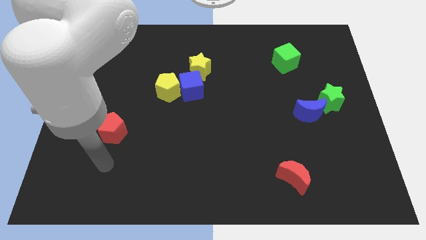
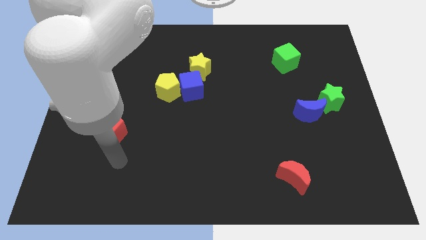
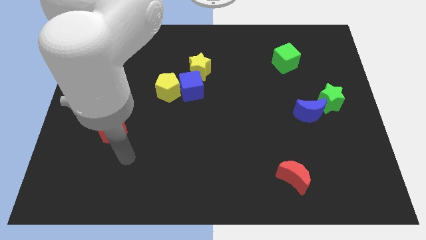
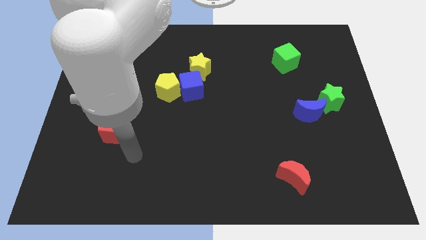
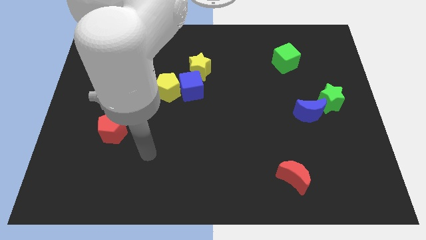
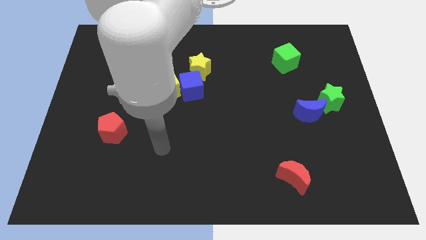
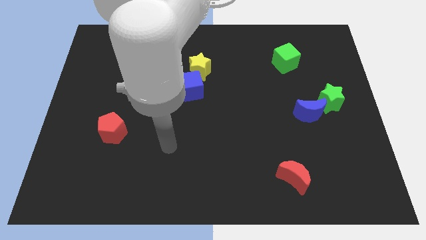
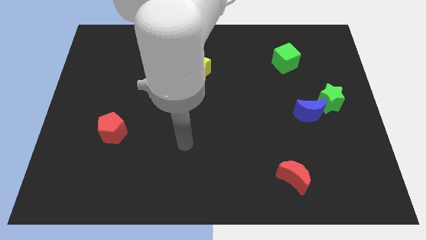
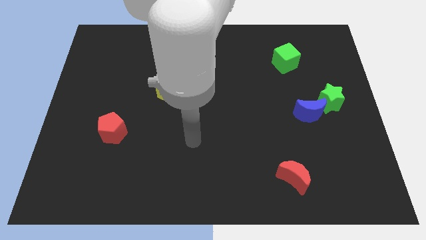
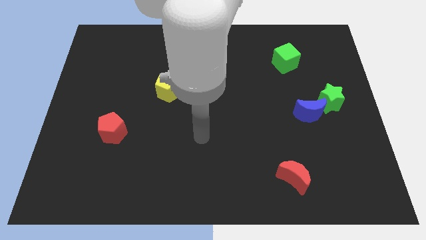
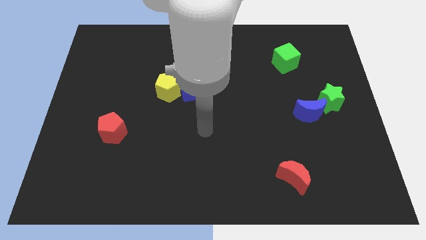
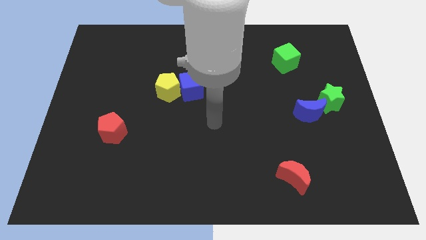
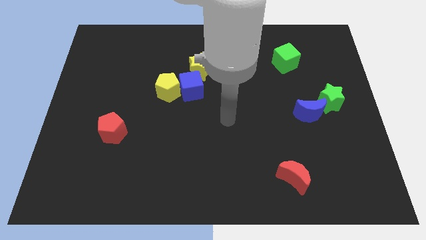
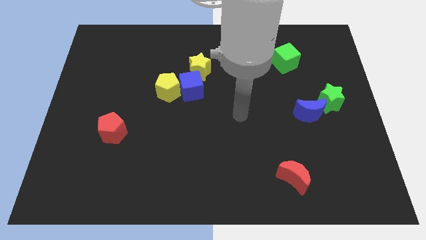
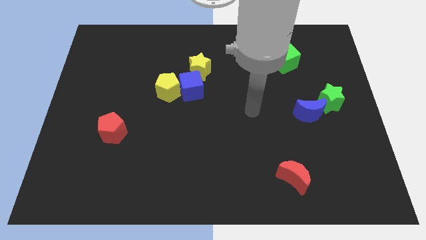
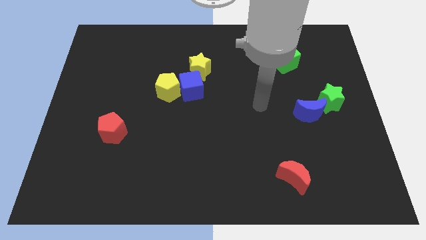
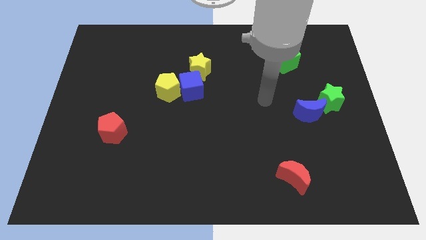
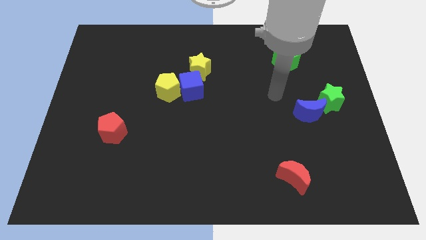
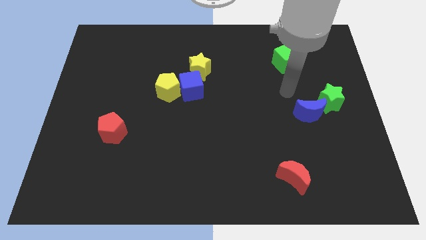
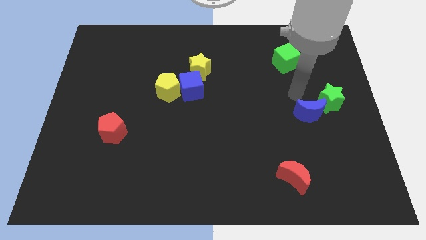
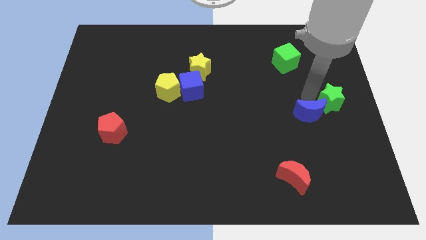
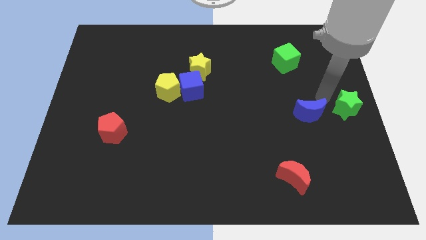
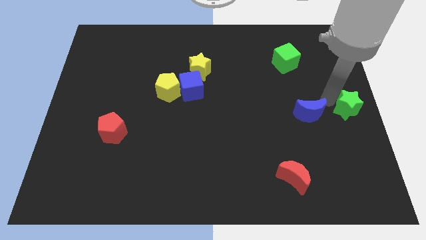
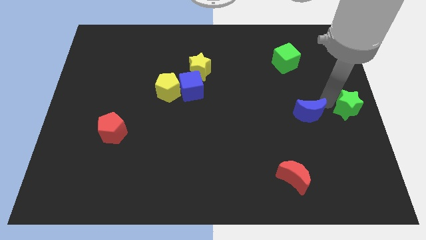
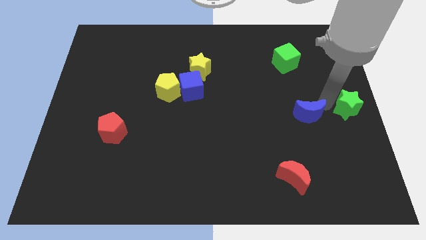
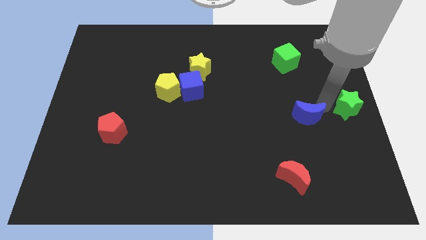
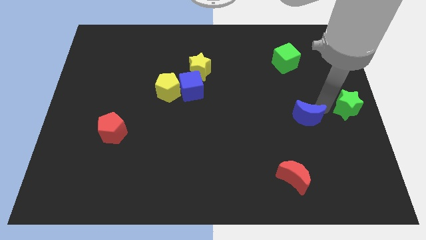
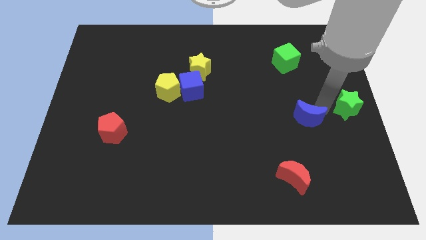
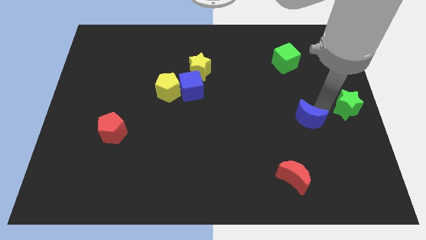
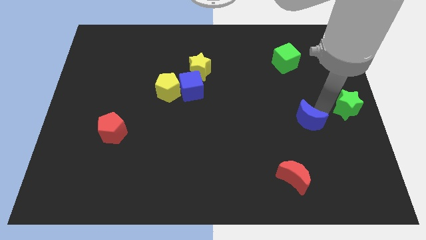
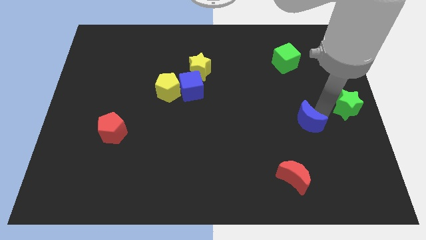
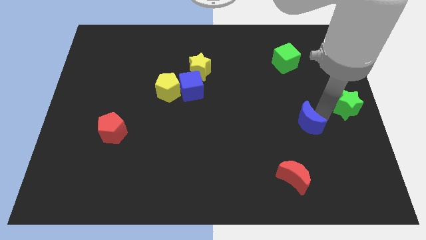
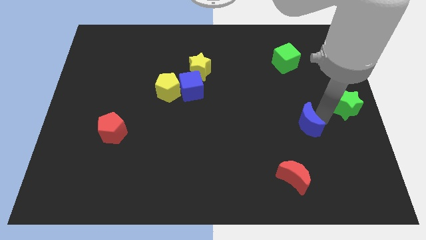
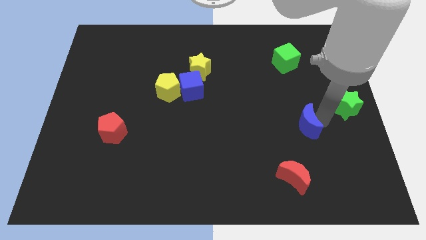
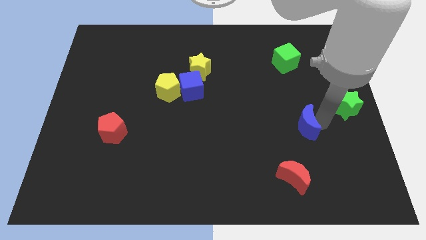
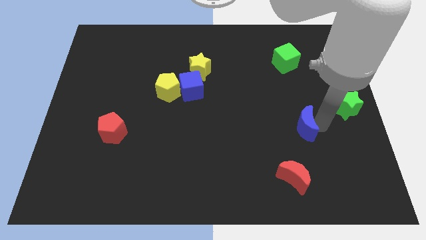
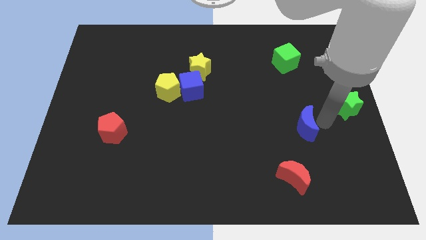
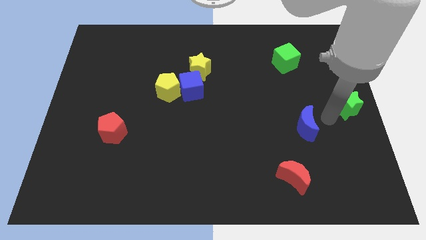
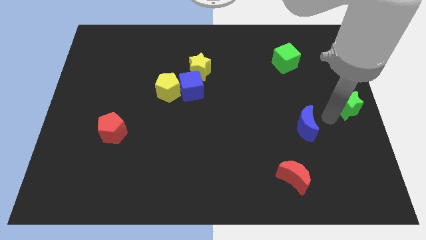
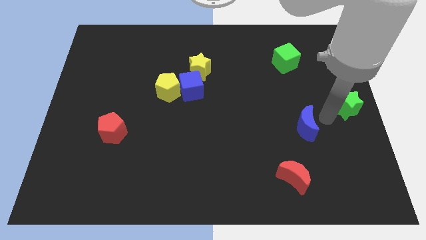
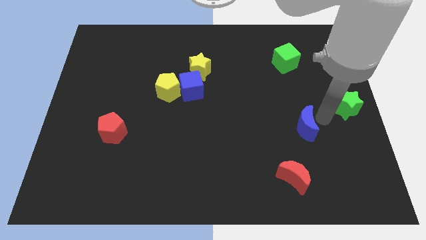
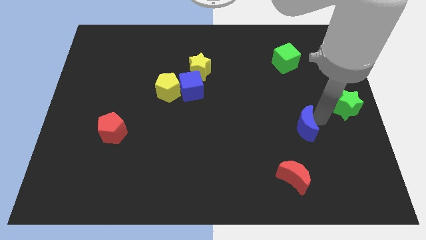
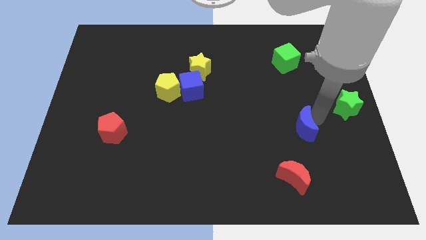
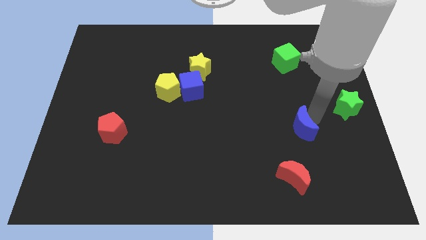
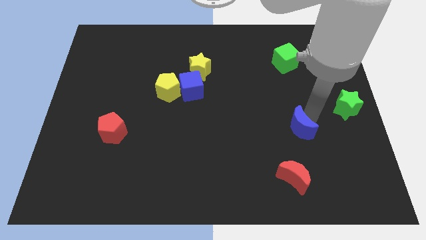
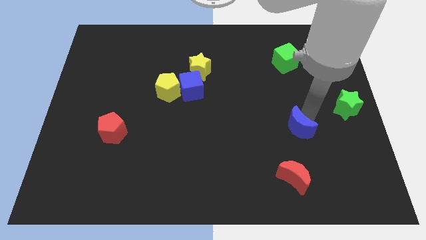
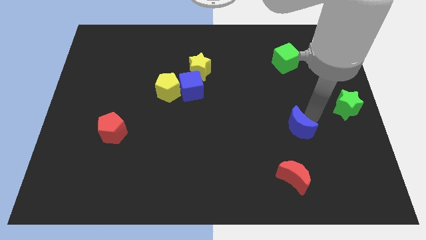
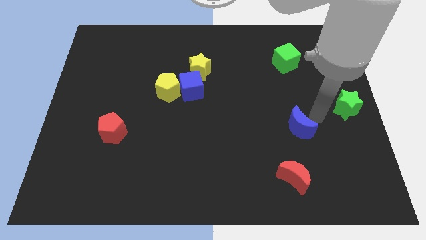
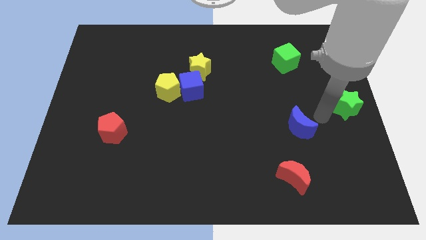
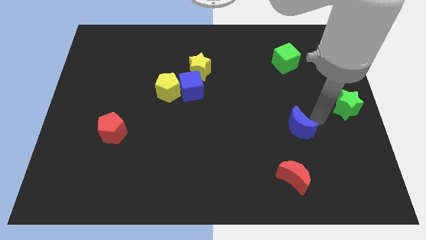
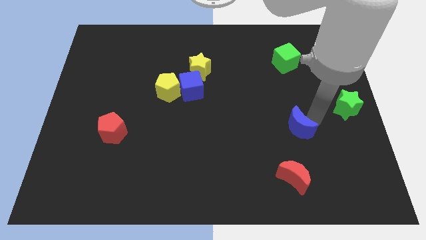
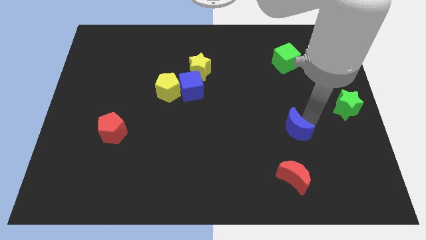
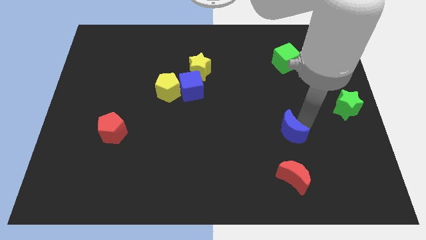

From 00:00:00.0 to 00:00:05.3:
push the blue moon a little down and to the left

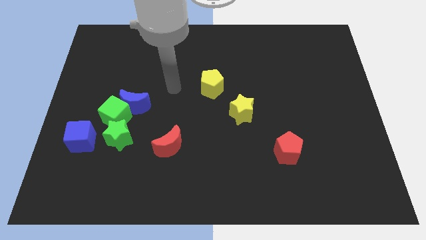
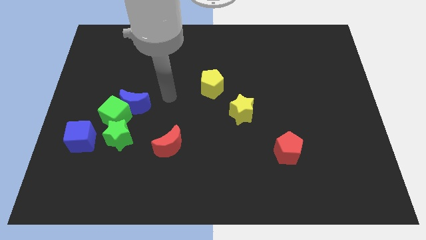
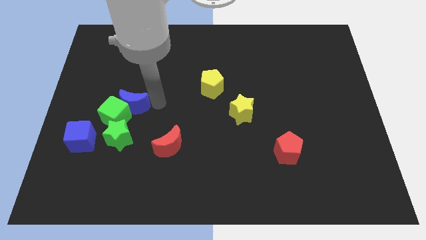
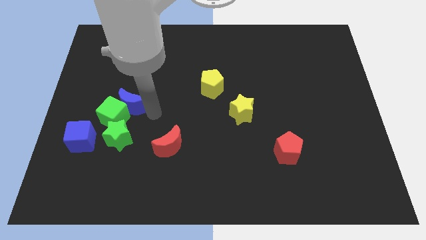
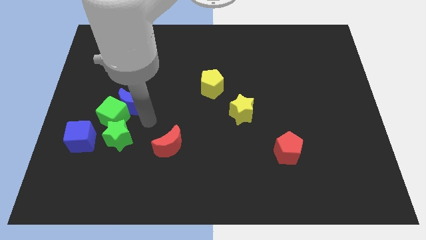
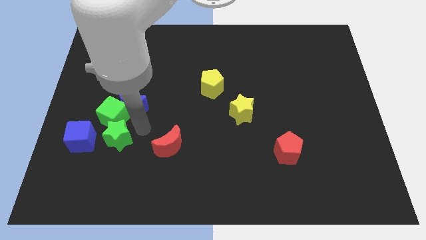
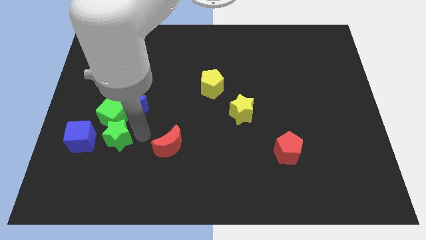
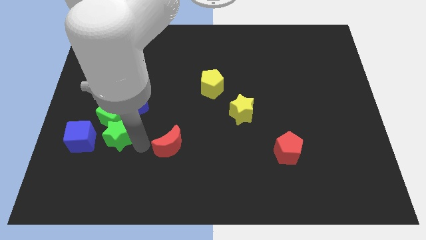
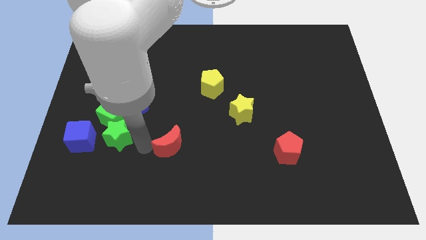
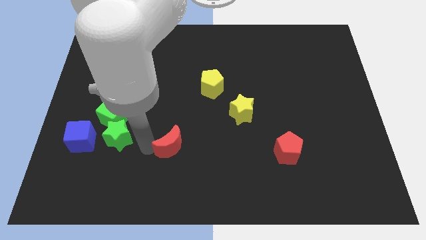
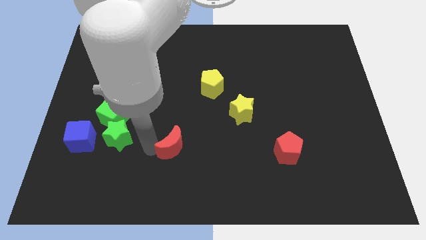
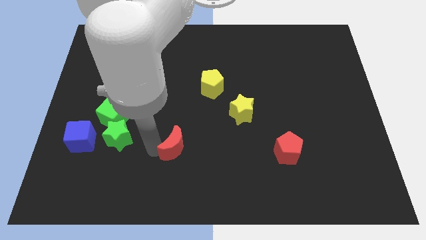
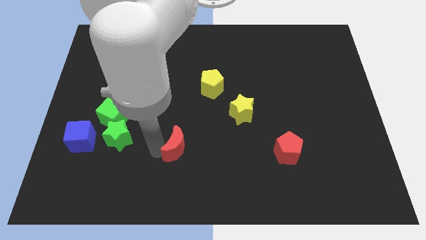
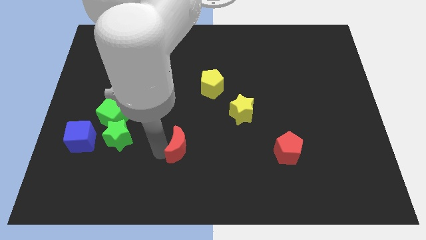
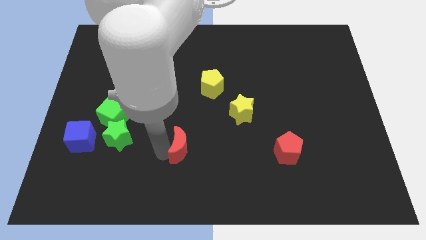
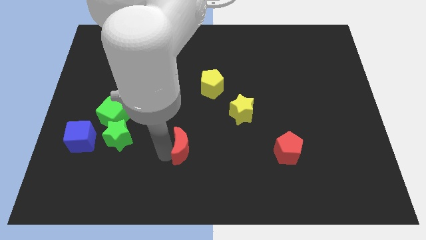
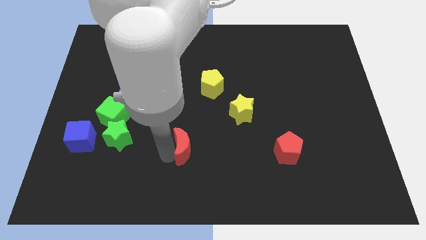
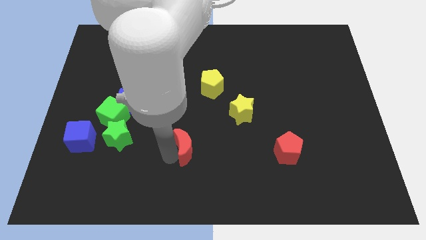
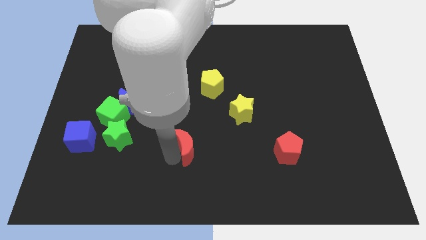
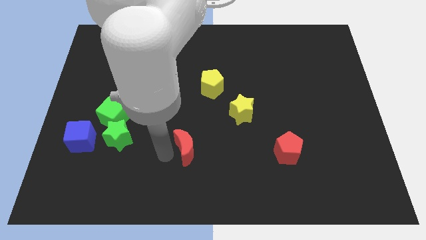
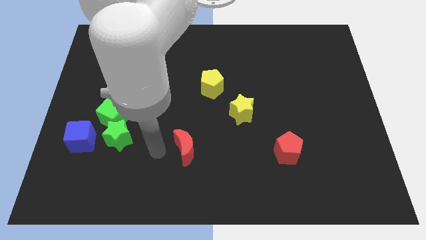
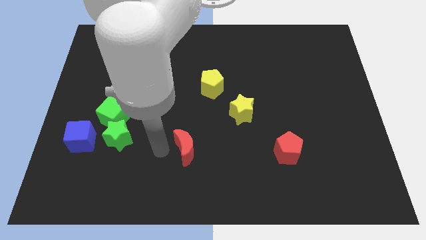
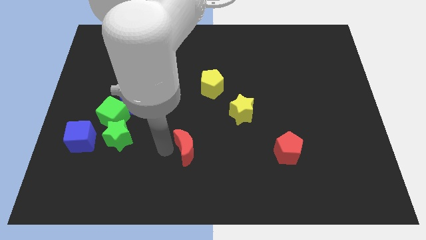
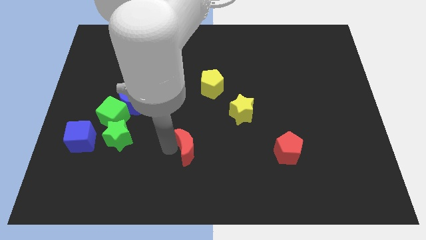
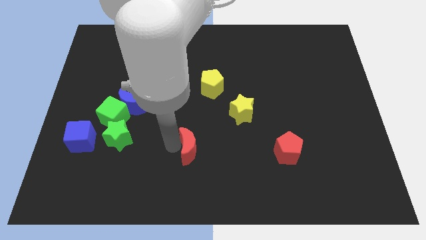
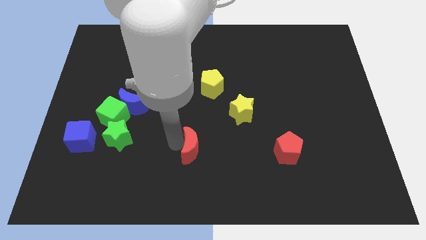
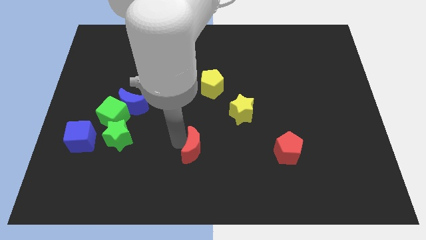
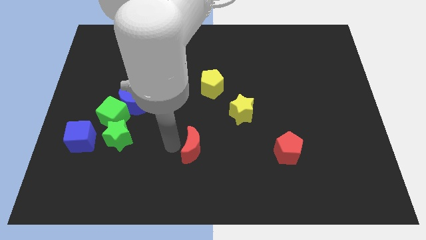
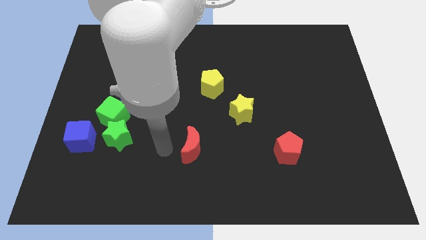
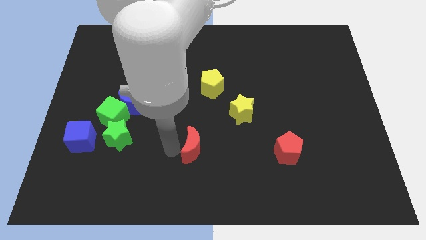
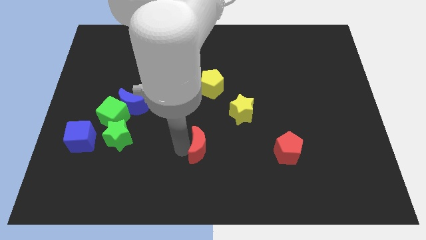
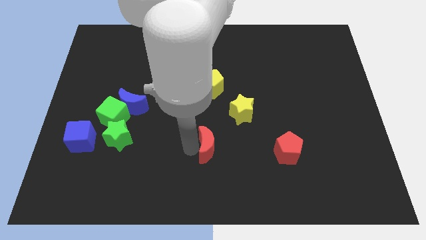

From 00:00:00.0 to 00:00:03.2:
move the red moon to the right a little
